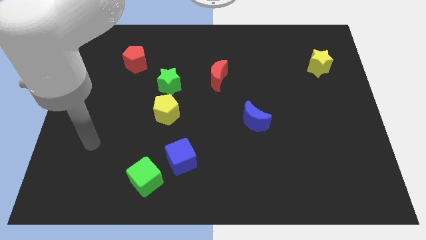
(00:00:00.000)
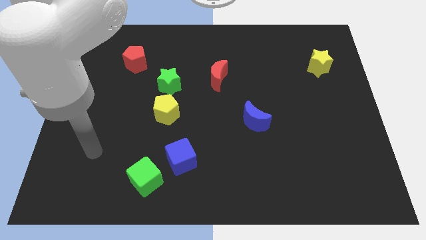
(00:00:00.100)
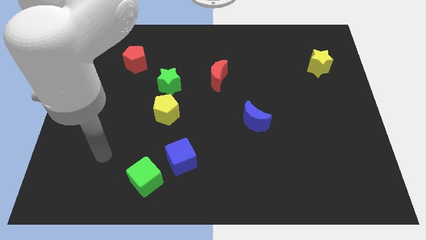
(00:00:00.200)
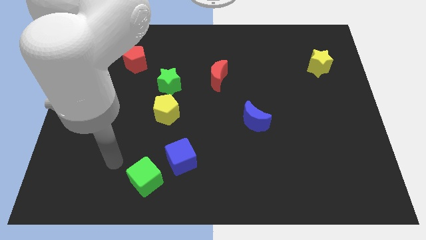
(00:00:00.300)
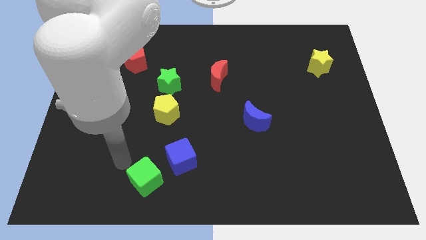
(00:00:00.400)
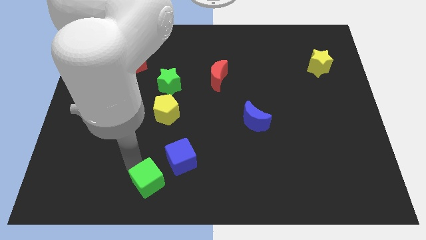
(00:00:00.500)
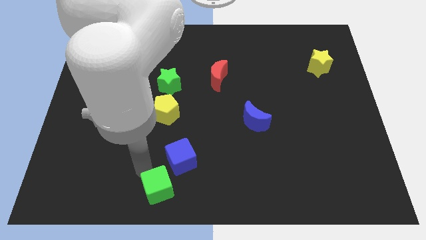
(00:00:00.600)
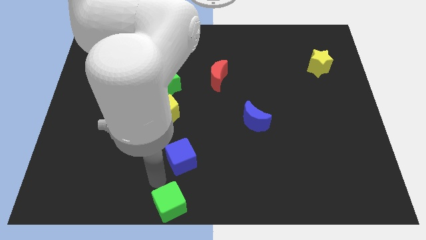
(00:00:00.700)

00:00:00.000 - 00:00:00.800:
move the blue cube away from the green cube

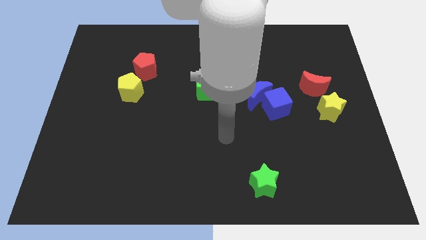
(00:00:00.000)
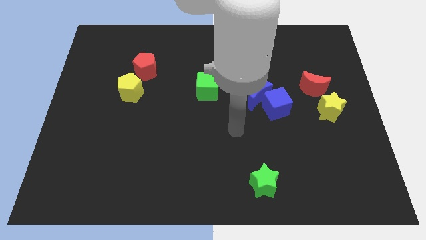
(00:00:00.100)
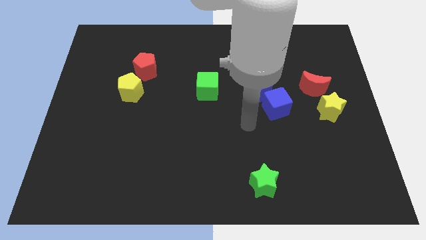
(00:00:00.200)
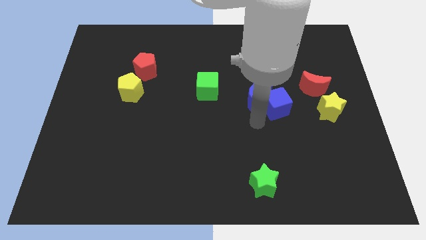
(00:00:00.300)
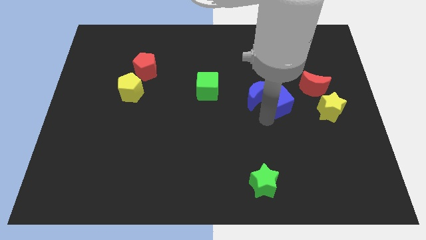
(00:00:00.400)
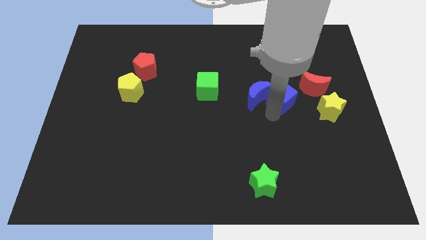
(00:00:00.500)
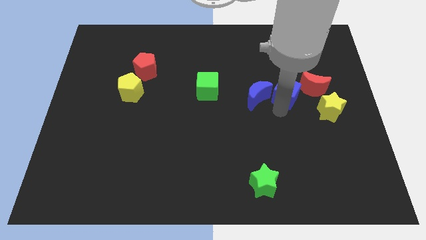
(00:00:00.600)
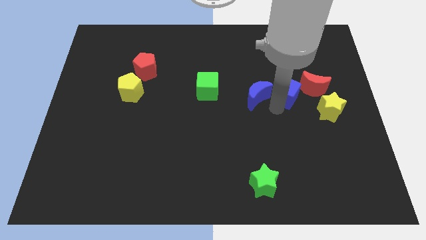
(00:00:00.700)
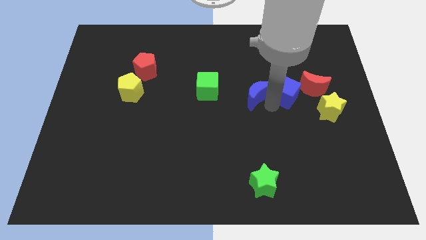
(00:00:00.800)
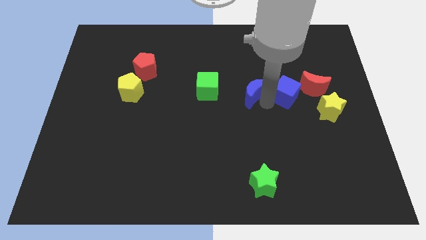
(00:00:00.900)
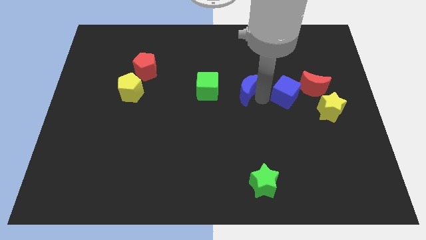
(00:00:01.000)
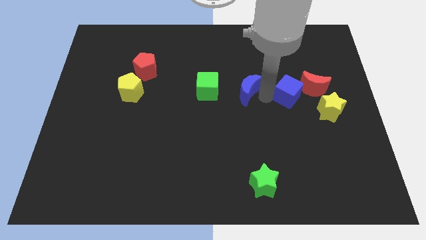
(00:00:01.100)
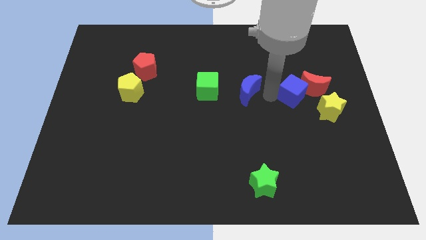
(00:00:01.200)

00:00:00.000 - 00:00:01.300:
move the blue moon away from the blue cube

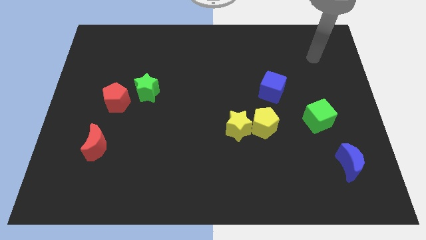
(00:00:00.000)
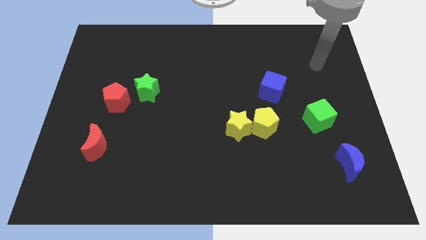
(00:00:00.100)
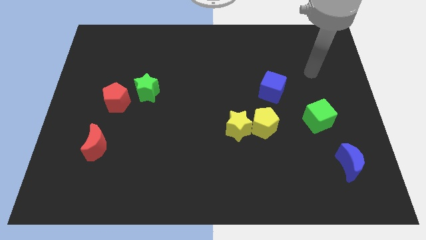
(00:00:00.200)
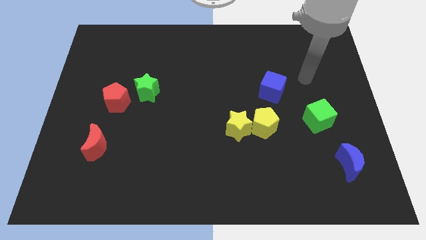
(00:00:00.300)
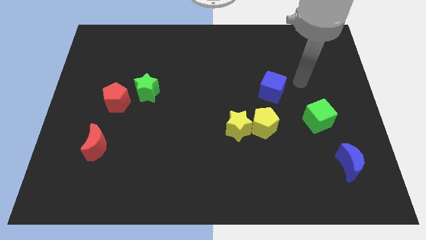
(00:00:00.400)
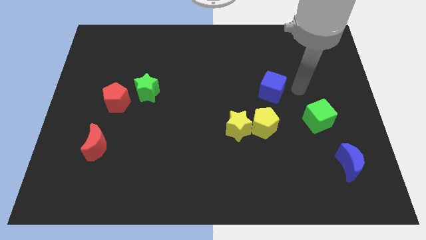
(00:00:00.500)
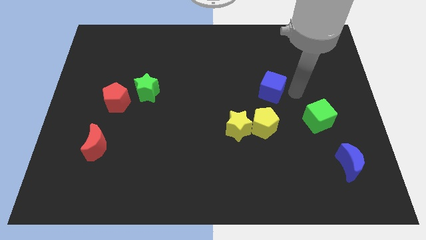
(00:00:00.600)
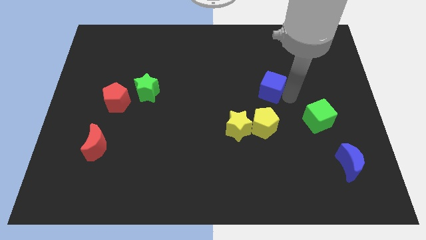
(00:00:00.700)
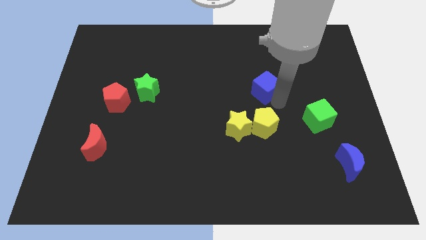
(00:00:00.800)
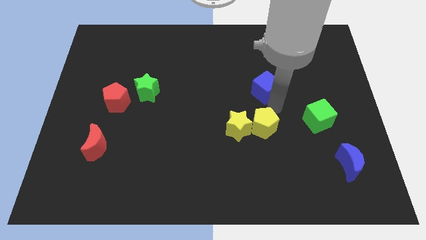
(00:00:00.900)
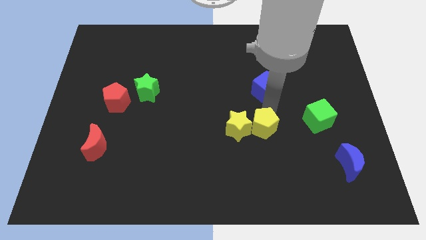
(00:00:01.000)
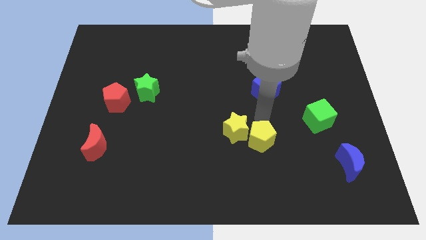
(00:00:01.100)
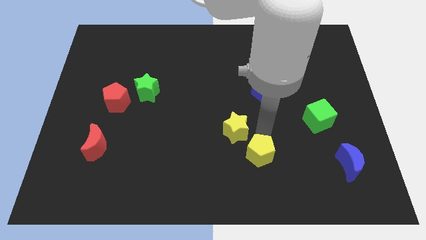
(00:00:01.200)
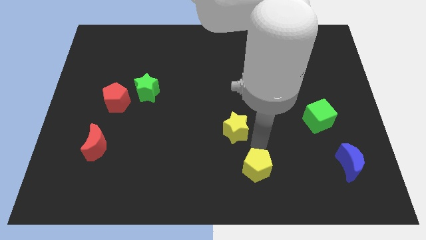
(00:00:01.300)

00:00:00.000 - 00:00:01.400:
move the yellow star away from the yellow pentagon

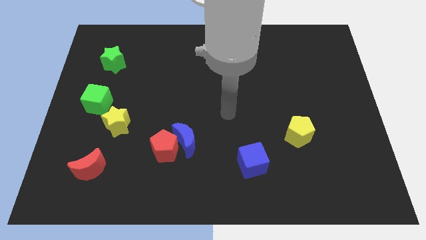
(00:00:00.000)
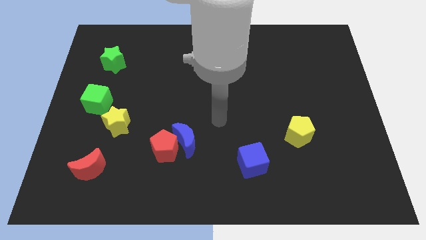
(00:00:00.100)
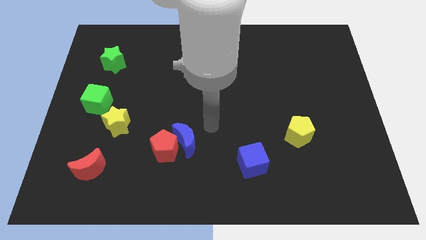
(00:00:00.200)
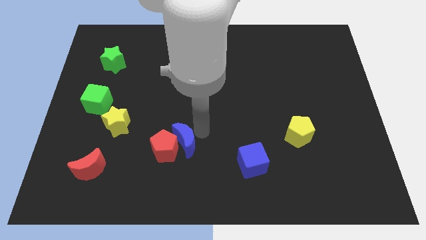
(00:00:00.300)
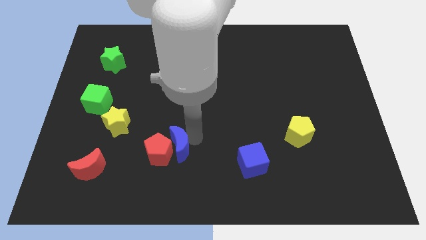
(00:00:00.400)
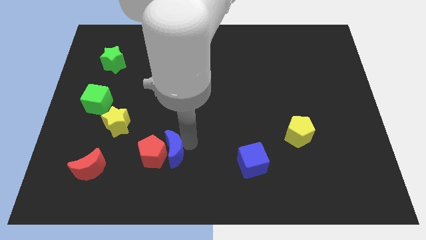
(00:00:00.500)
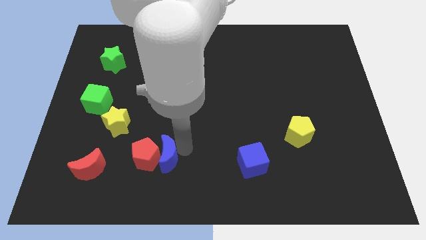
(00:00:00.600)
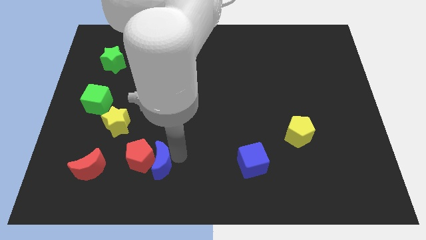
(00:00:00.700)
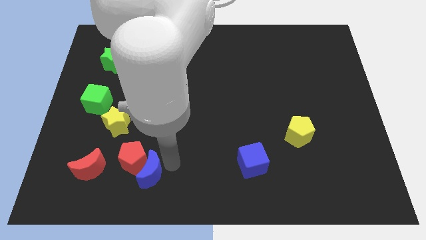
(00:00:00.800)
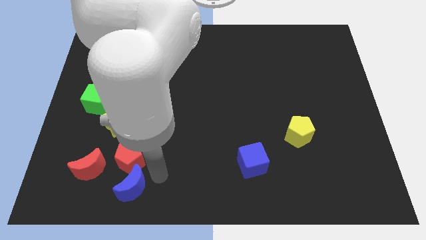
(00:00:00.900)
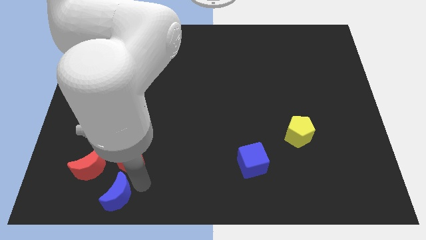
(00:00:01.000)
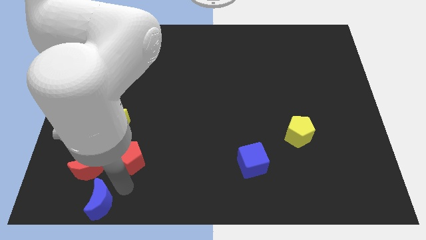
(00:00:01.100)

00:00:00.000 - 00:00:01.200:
pull the red pentagon apart from the blue moon

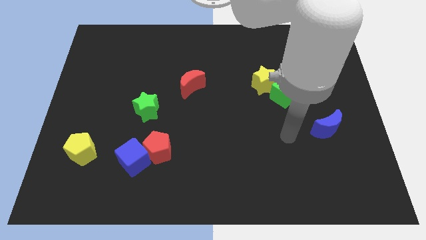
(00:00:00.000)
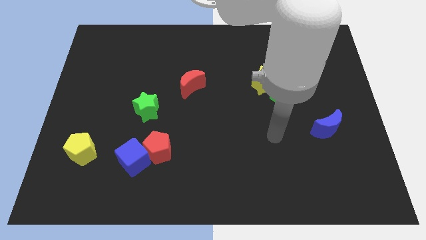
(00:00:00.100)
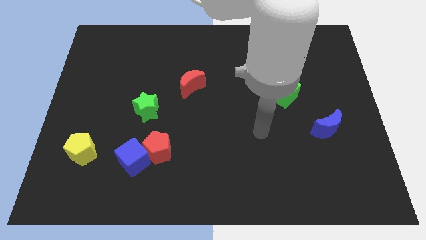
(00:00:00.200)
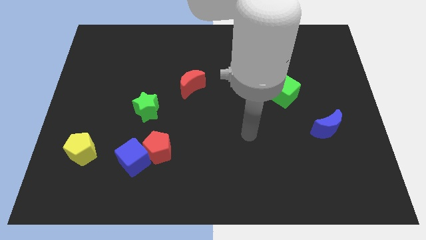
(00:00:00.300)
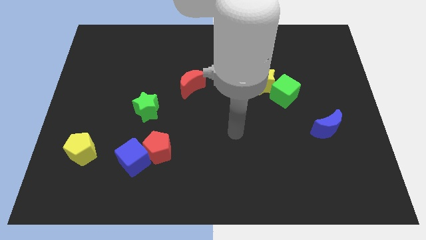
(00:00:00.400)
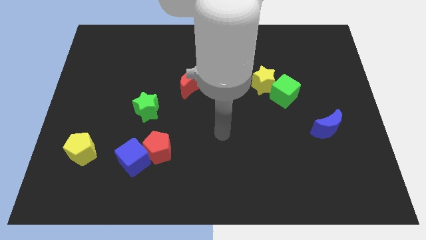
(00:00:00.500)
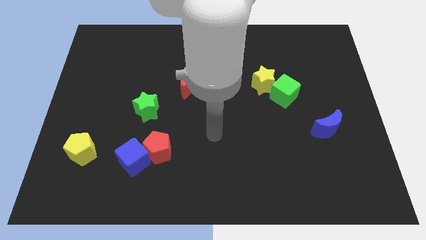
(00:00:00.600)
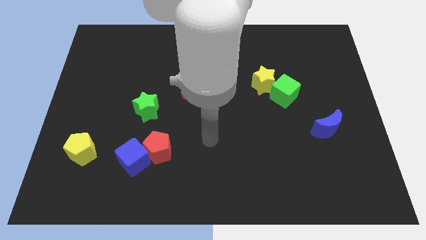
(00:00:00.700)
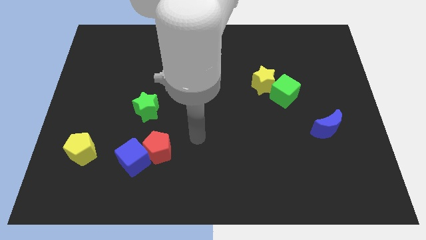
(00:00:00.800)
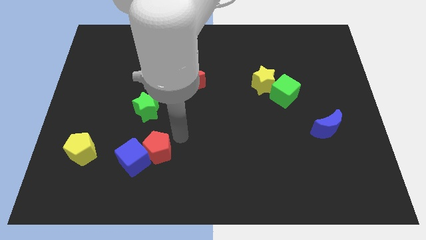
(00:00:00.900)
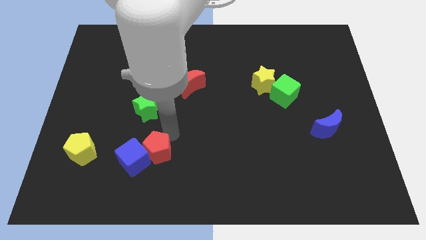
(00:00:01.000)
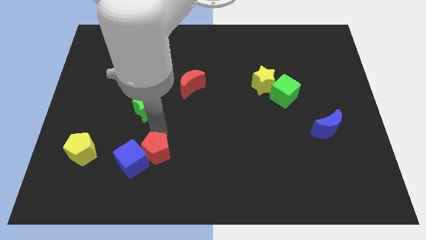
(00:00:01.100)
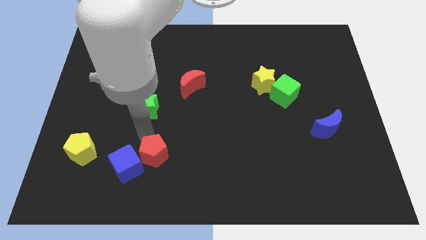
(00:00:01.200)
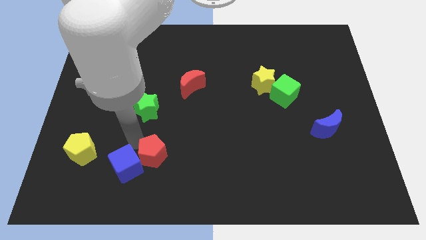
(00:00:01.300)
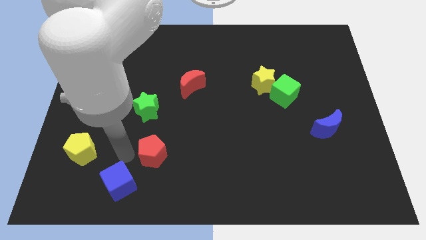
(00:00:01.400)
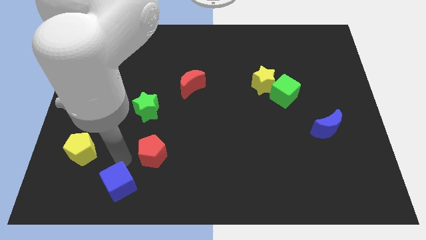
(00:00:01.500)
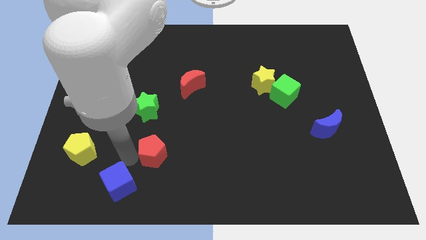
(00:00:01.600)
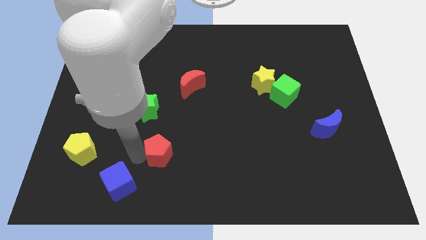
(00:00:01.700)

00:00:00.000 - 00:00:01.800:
separate the red pentagon from the blue cube

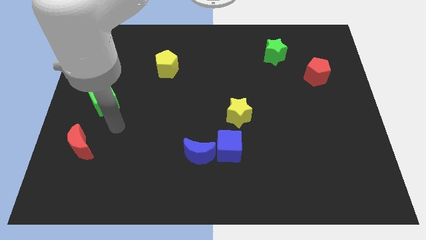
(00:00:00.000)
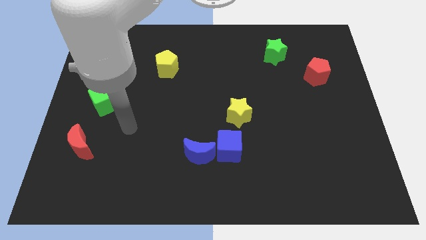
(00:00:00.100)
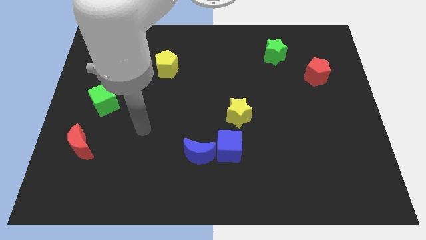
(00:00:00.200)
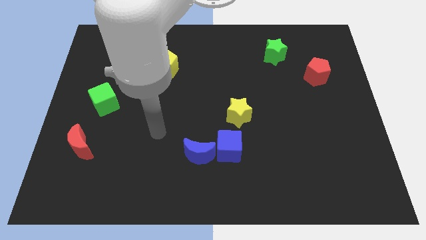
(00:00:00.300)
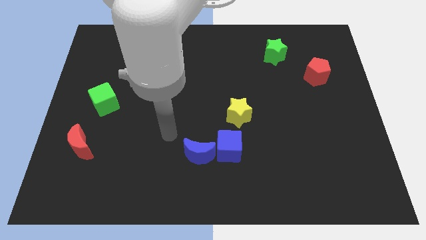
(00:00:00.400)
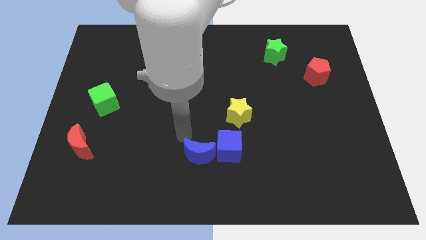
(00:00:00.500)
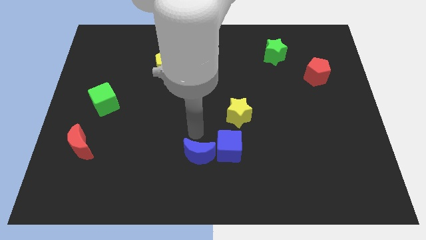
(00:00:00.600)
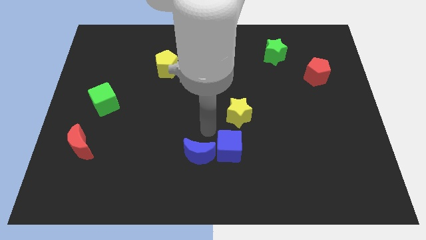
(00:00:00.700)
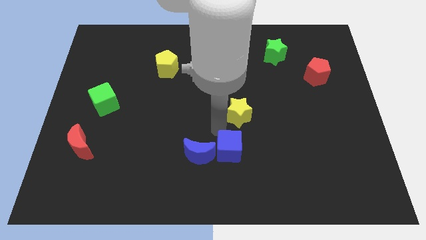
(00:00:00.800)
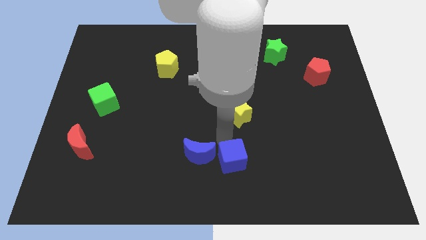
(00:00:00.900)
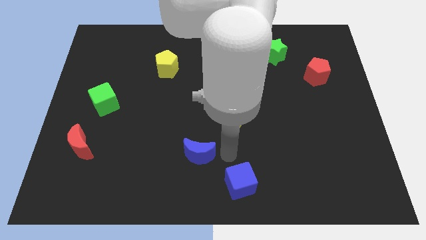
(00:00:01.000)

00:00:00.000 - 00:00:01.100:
separate the blue moon from the blue cube

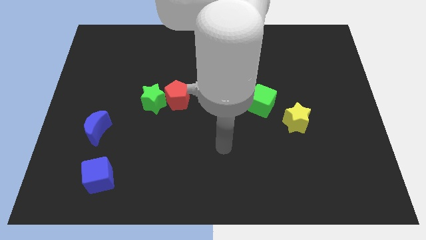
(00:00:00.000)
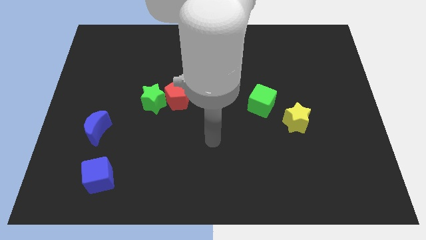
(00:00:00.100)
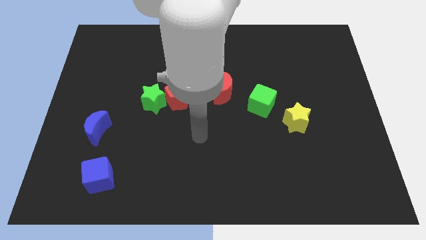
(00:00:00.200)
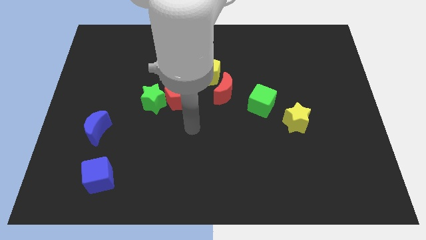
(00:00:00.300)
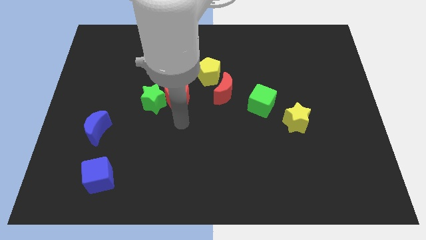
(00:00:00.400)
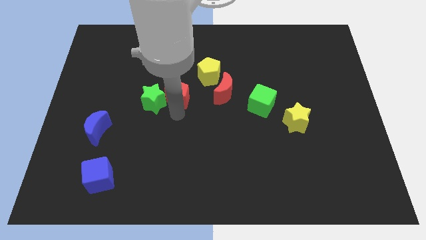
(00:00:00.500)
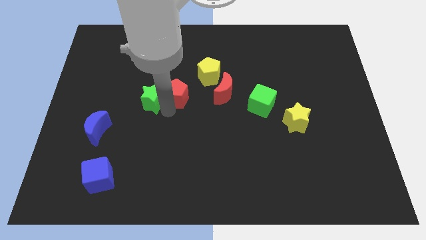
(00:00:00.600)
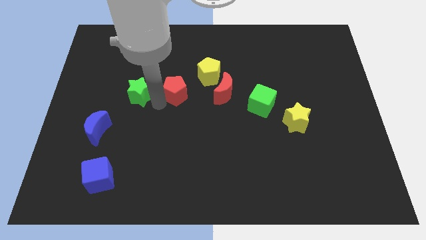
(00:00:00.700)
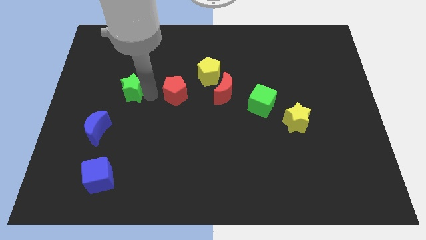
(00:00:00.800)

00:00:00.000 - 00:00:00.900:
move the red pentagon away from the green star

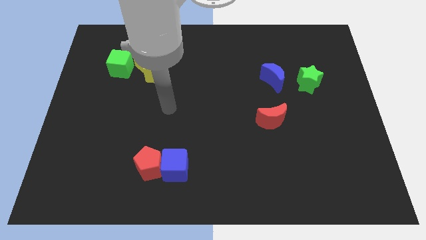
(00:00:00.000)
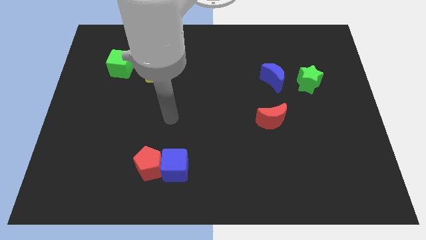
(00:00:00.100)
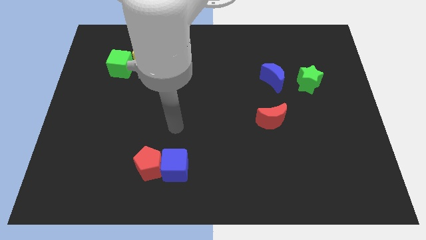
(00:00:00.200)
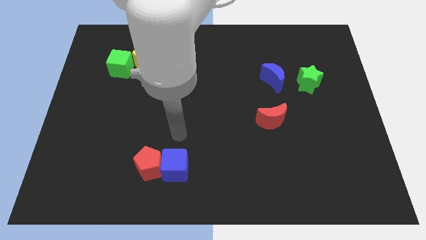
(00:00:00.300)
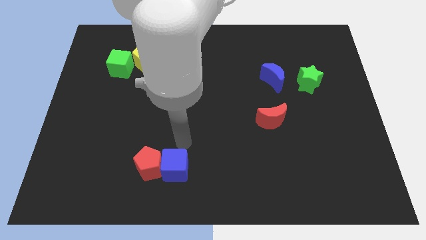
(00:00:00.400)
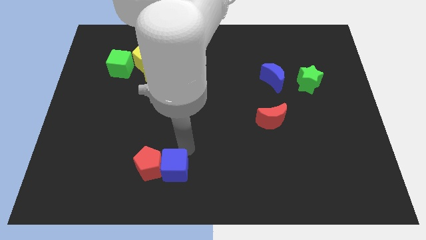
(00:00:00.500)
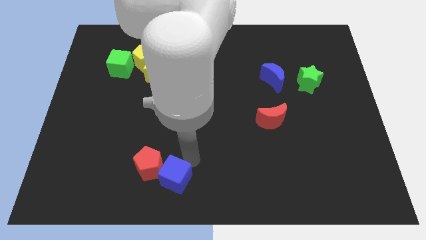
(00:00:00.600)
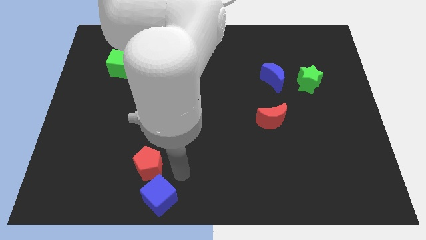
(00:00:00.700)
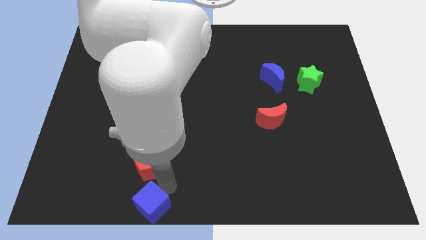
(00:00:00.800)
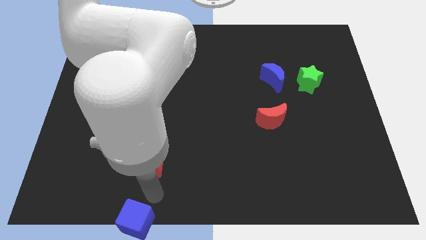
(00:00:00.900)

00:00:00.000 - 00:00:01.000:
pull the red pentagon apart from the blue cube
